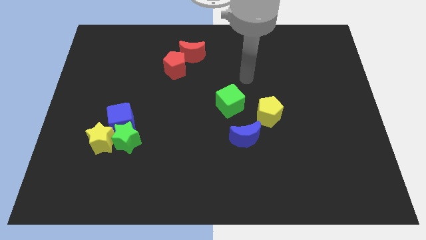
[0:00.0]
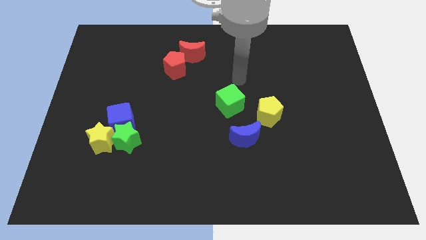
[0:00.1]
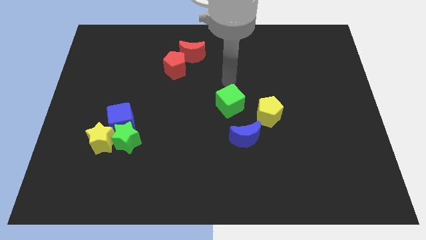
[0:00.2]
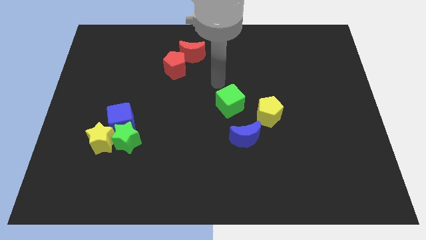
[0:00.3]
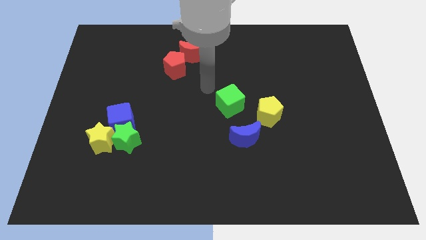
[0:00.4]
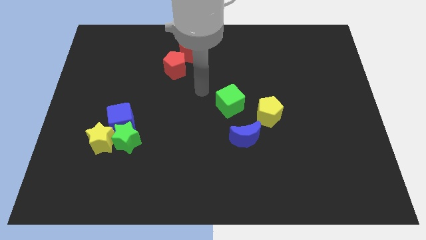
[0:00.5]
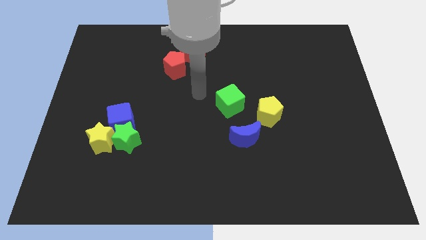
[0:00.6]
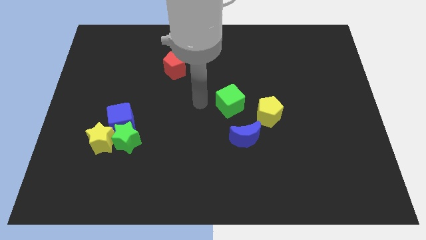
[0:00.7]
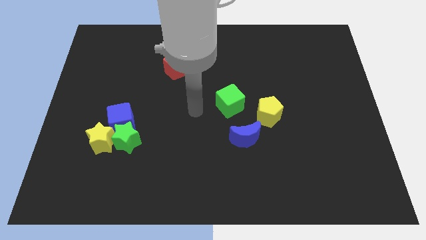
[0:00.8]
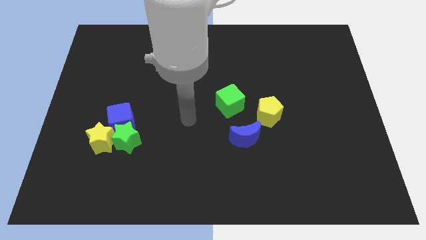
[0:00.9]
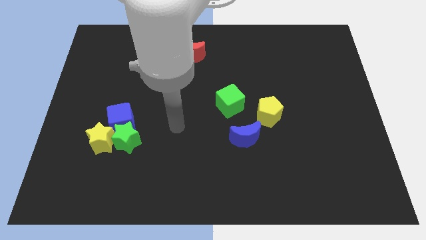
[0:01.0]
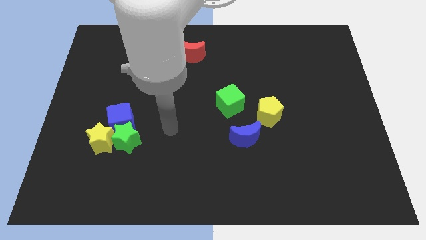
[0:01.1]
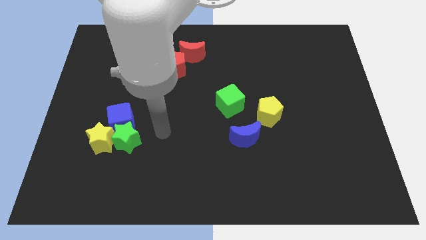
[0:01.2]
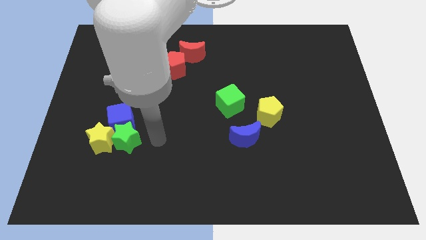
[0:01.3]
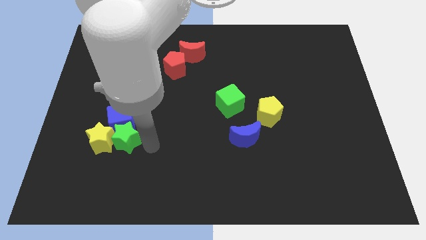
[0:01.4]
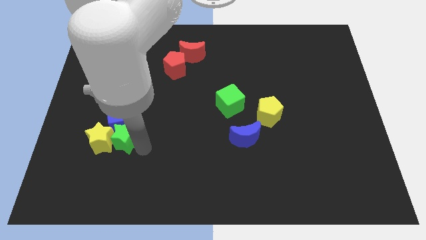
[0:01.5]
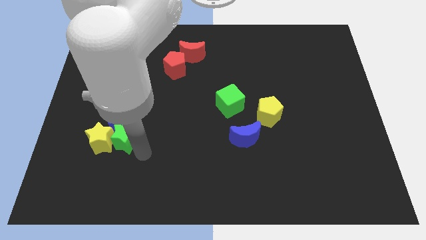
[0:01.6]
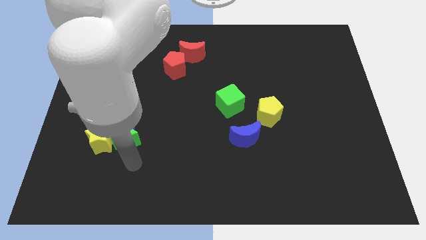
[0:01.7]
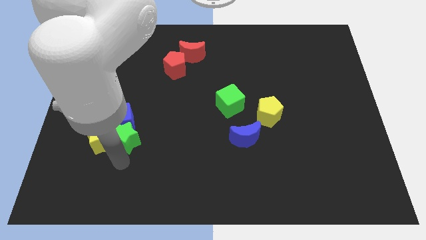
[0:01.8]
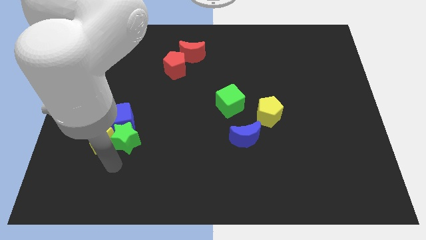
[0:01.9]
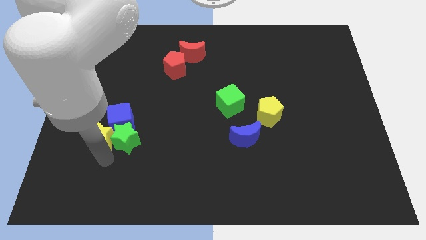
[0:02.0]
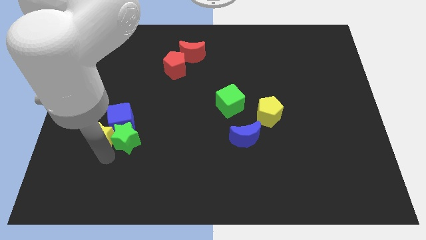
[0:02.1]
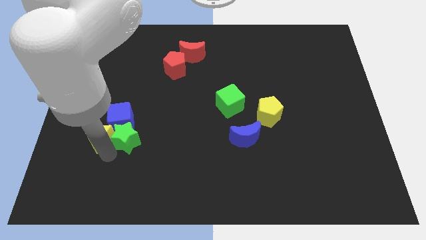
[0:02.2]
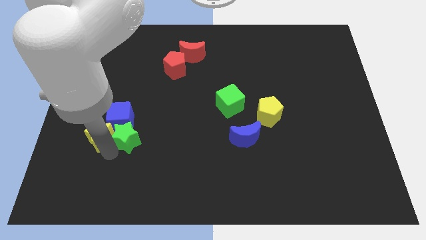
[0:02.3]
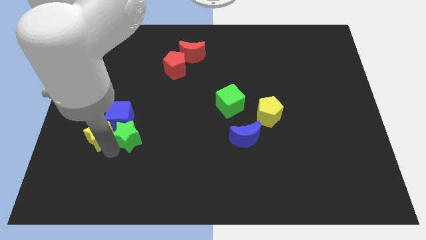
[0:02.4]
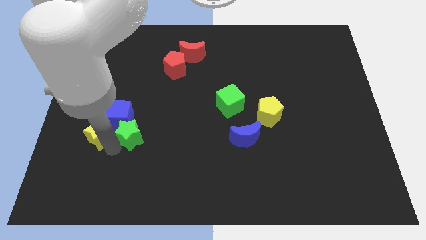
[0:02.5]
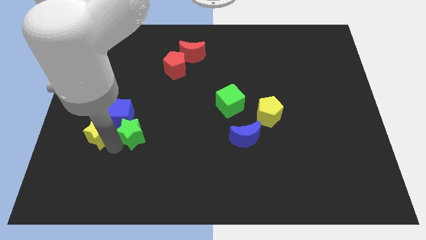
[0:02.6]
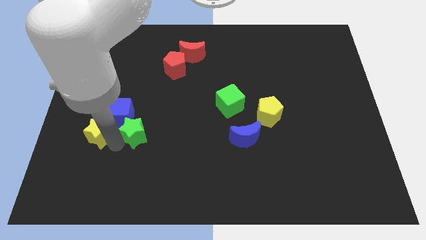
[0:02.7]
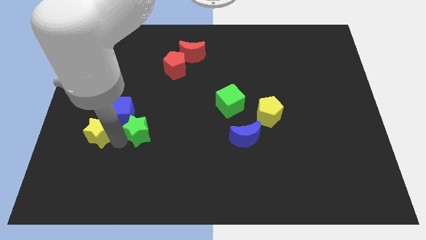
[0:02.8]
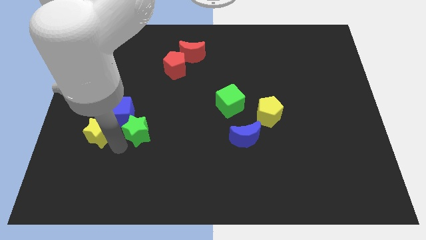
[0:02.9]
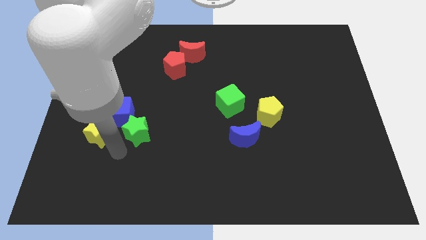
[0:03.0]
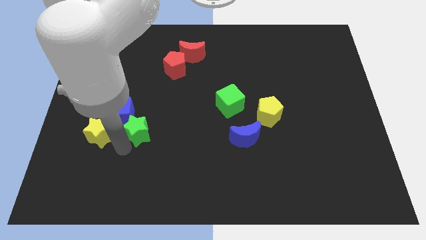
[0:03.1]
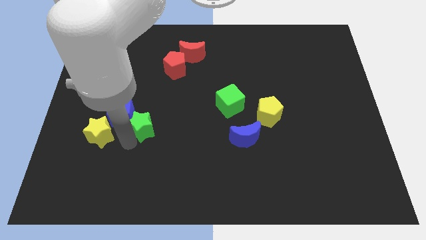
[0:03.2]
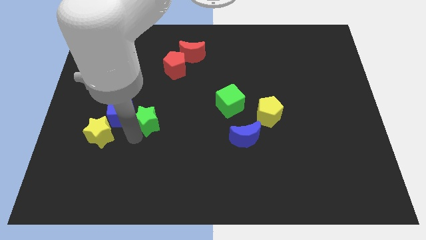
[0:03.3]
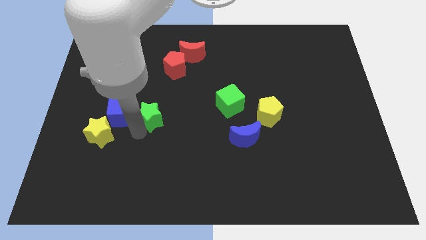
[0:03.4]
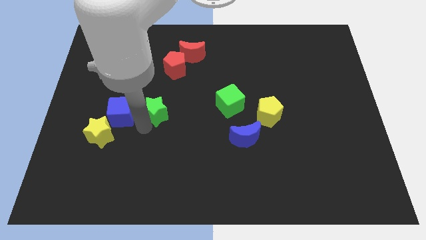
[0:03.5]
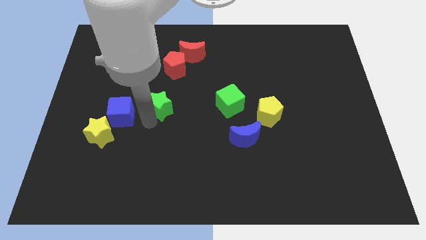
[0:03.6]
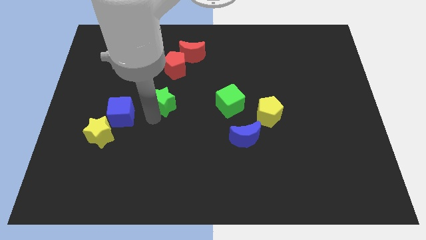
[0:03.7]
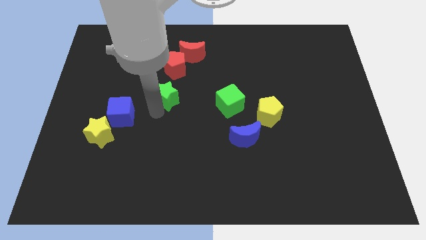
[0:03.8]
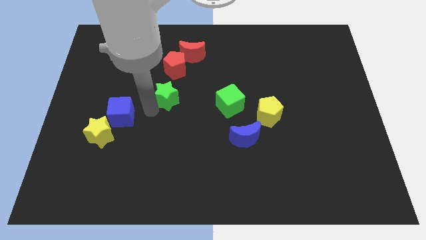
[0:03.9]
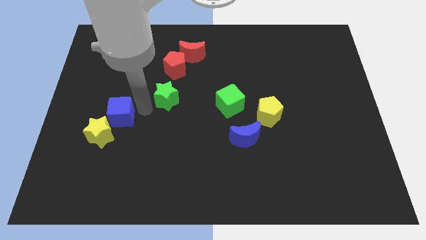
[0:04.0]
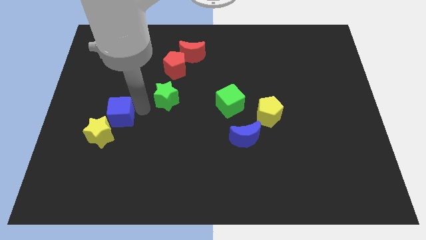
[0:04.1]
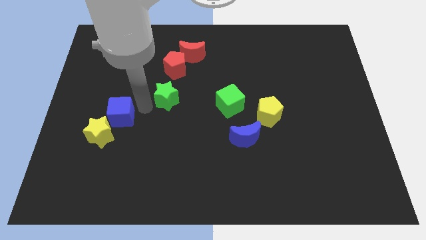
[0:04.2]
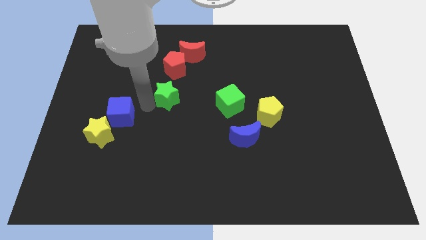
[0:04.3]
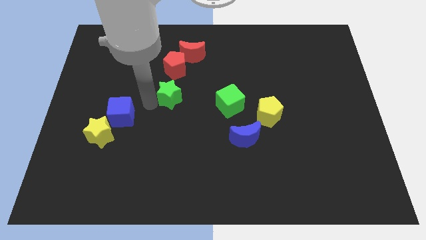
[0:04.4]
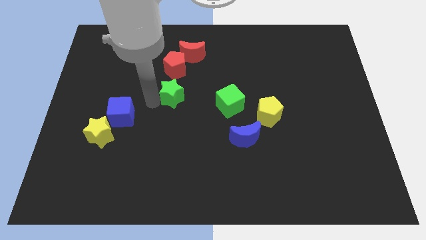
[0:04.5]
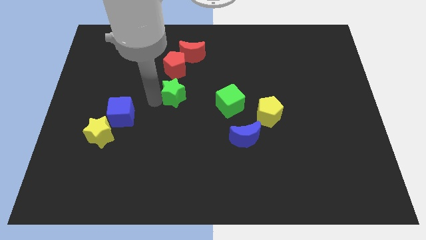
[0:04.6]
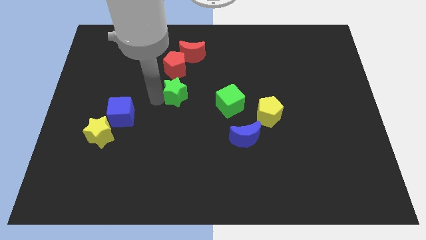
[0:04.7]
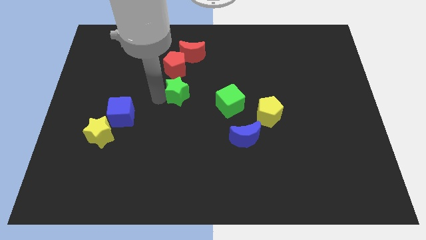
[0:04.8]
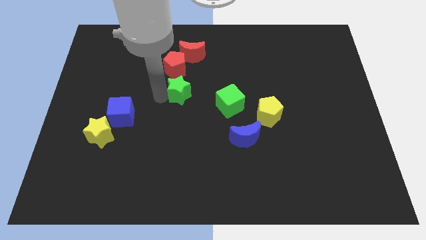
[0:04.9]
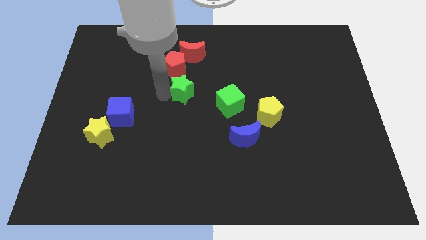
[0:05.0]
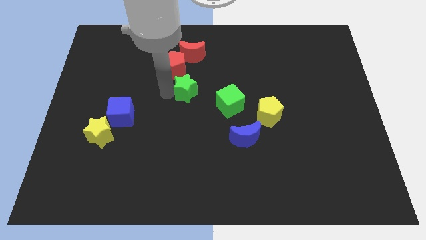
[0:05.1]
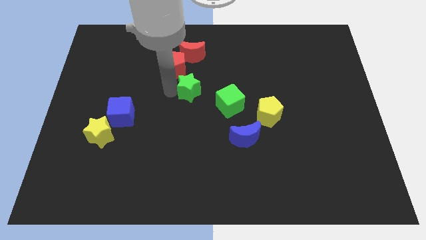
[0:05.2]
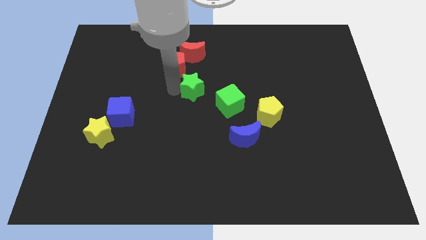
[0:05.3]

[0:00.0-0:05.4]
move the green star upwards and then right

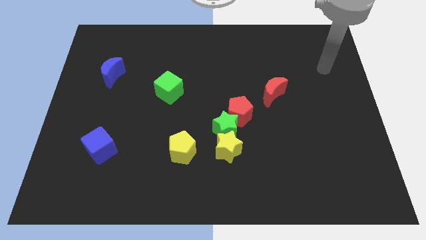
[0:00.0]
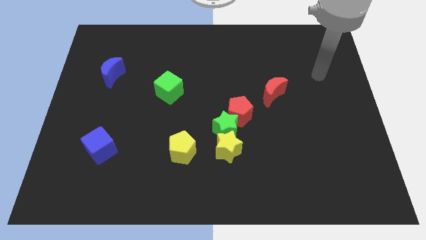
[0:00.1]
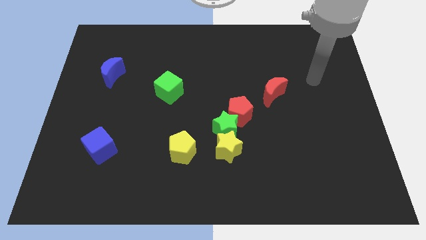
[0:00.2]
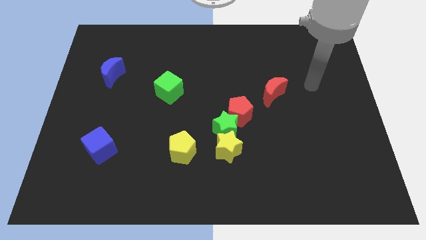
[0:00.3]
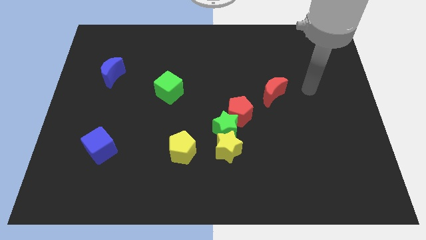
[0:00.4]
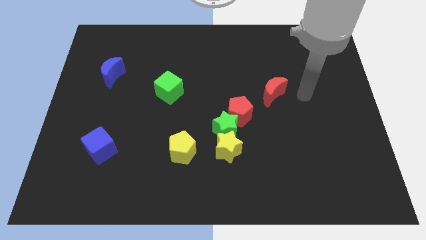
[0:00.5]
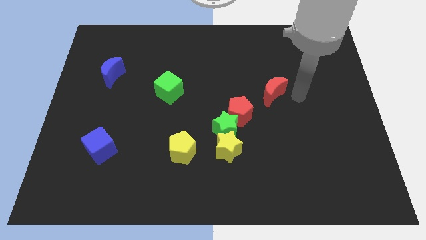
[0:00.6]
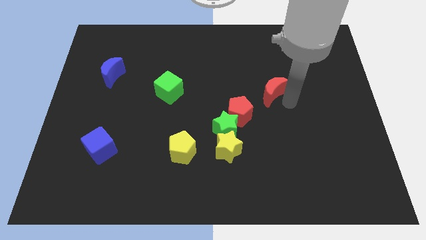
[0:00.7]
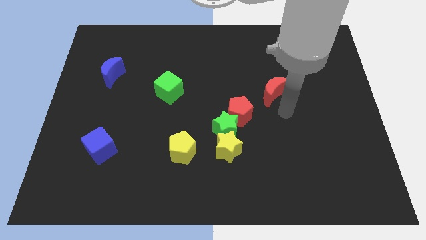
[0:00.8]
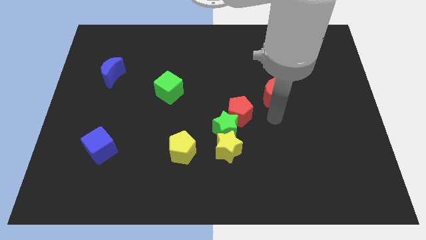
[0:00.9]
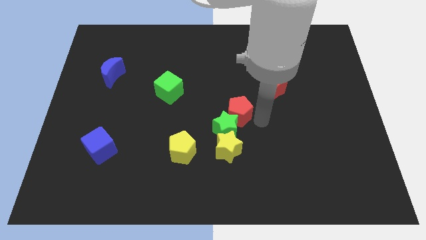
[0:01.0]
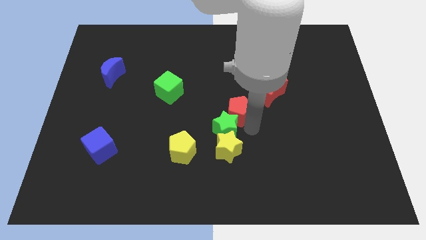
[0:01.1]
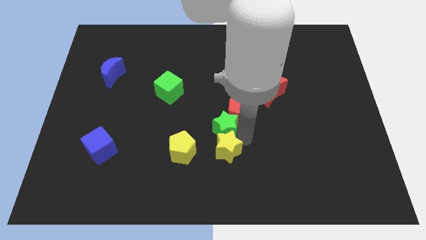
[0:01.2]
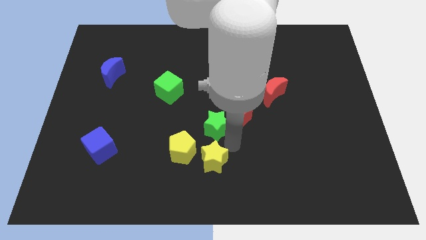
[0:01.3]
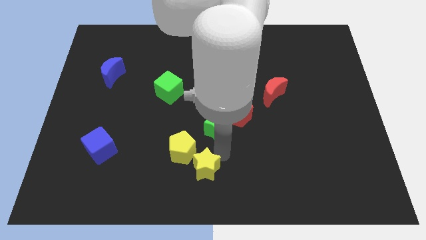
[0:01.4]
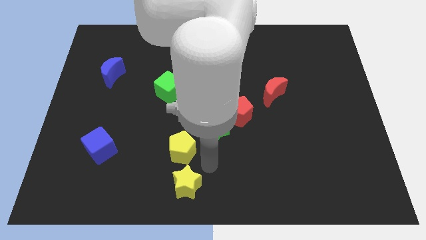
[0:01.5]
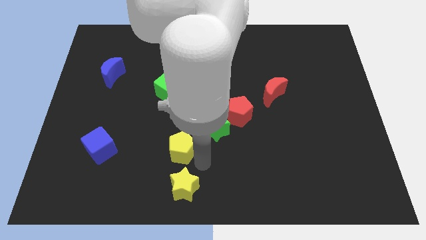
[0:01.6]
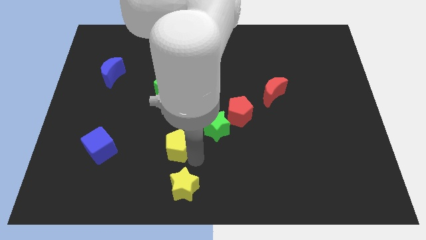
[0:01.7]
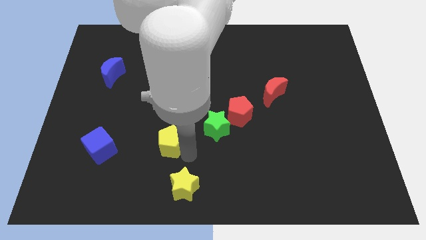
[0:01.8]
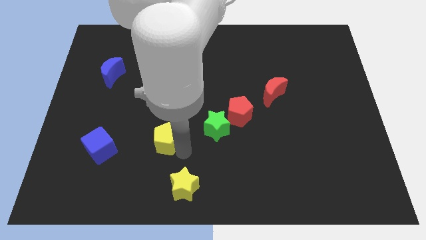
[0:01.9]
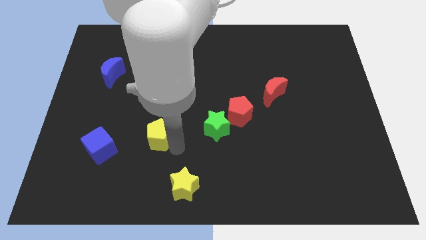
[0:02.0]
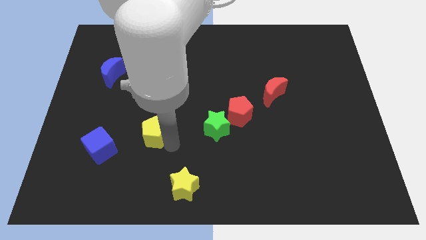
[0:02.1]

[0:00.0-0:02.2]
slightly move the yellow pentagon upwards and to the left
